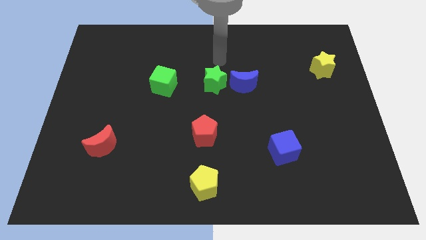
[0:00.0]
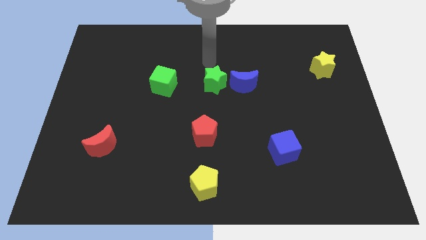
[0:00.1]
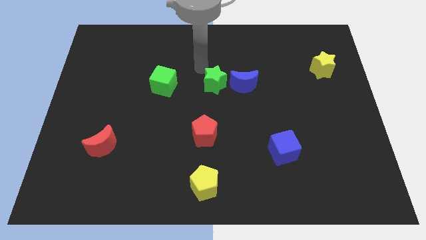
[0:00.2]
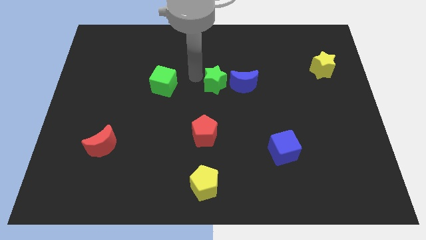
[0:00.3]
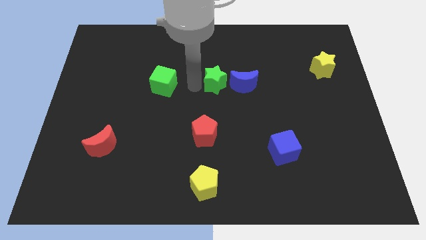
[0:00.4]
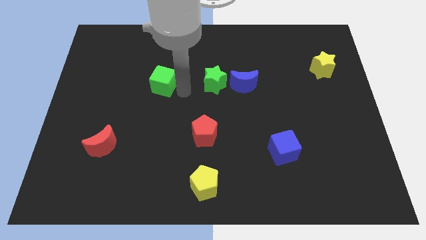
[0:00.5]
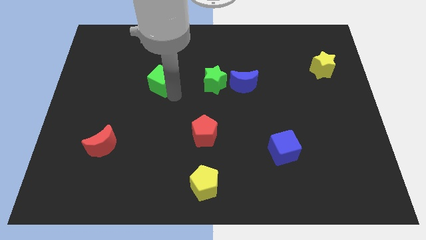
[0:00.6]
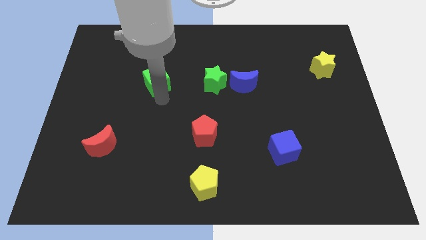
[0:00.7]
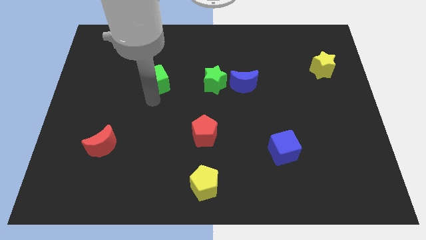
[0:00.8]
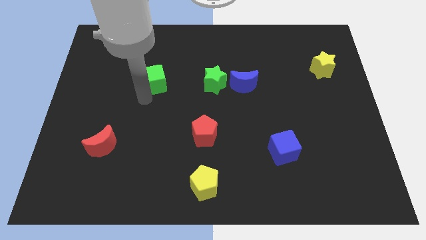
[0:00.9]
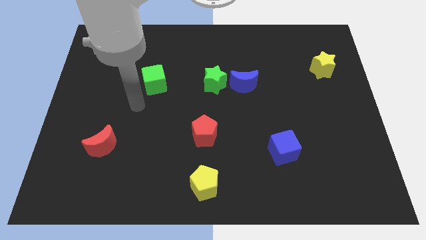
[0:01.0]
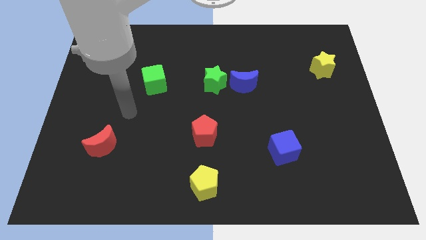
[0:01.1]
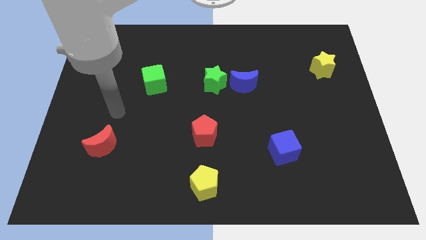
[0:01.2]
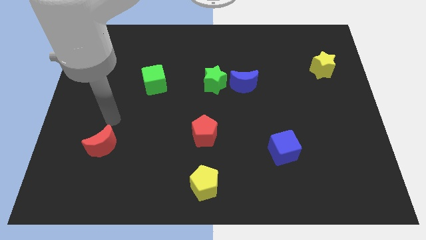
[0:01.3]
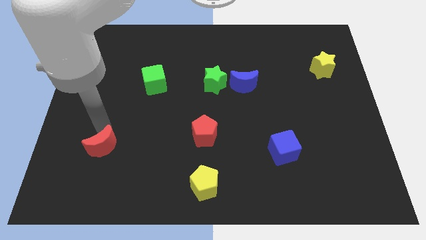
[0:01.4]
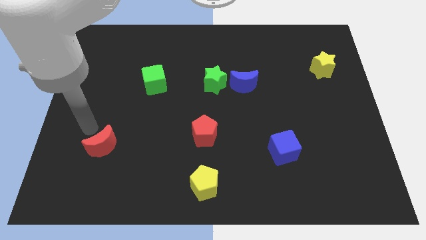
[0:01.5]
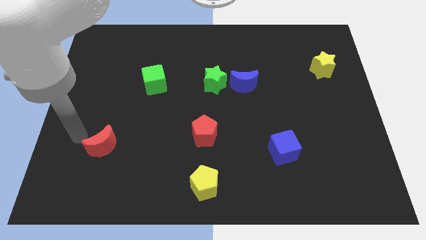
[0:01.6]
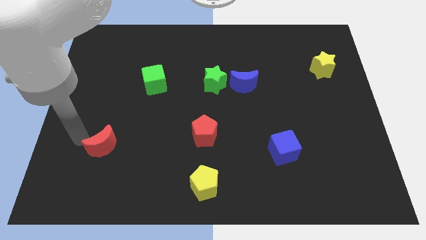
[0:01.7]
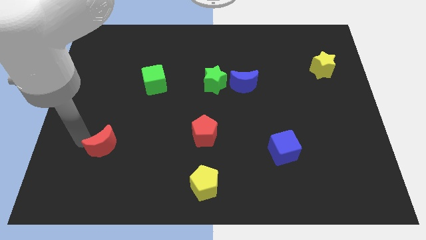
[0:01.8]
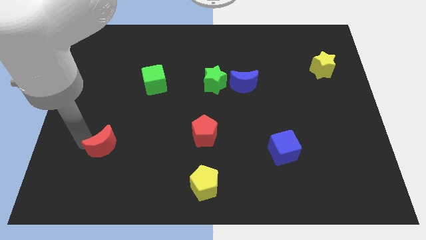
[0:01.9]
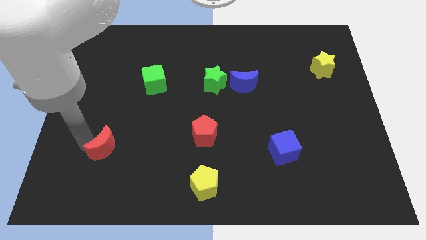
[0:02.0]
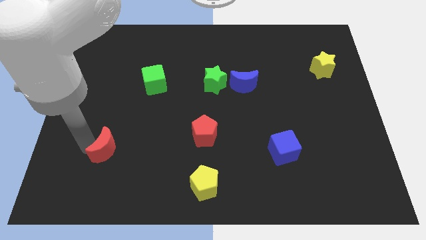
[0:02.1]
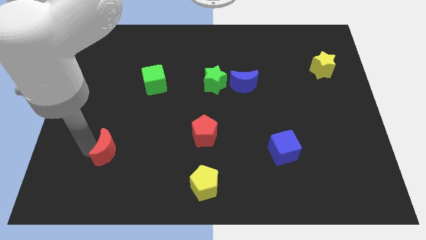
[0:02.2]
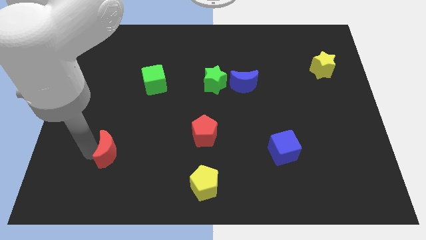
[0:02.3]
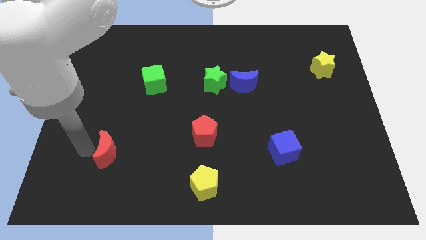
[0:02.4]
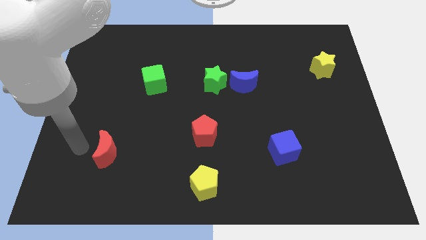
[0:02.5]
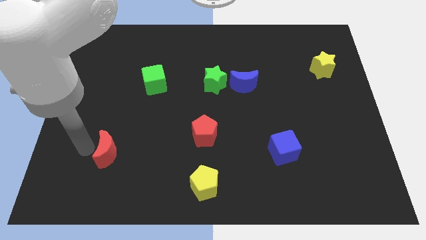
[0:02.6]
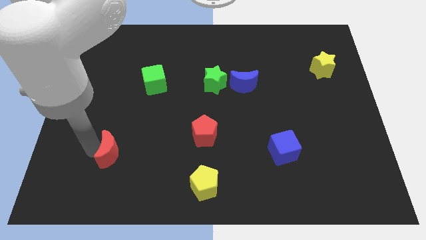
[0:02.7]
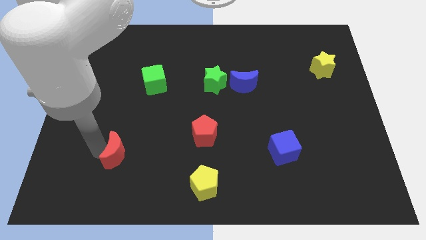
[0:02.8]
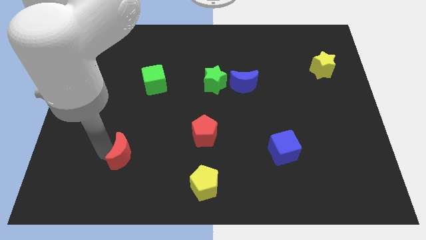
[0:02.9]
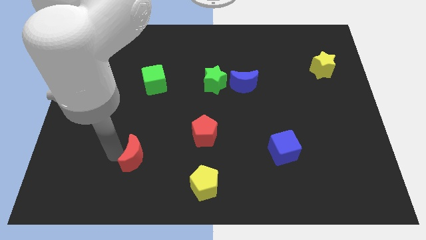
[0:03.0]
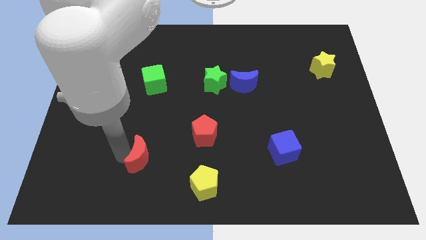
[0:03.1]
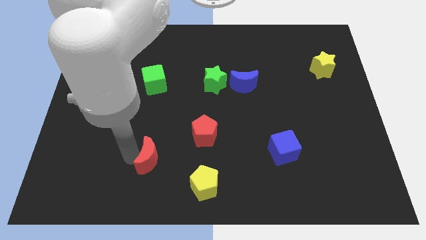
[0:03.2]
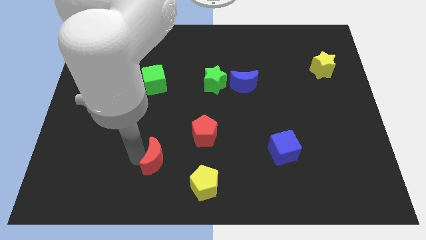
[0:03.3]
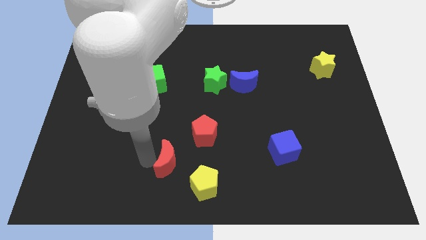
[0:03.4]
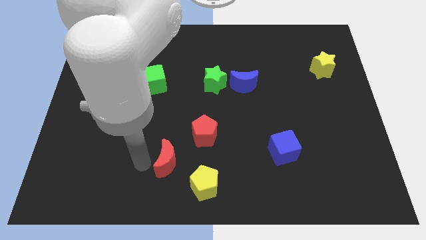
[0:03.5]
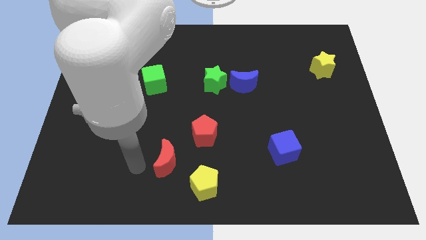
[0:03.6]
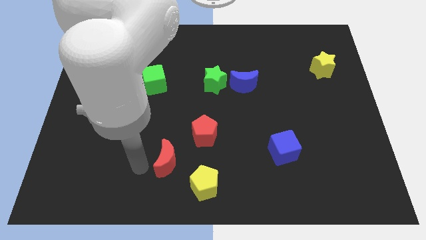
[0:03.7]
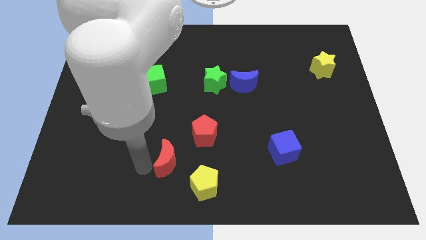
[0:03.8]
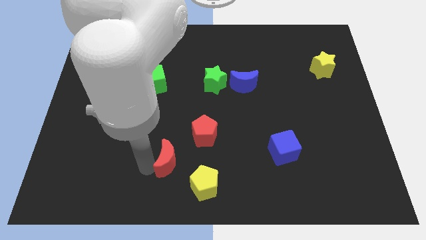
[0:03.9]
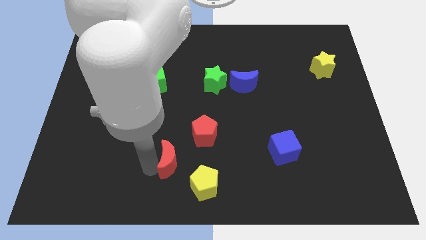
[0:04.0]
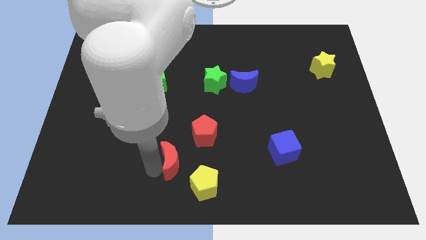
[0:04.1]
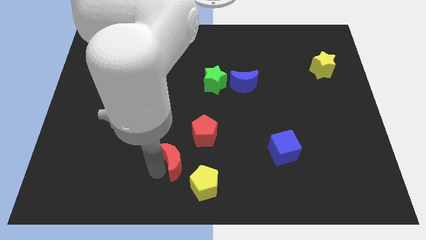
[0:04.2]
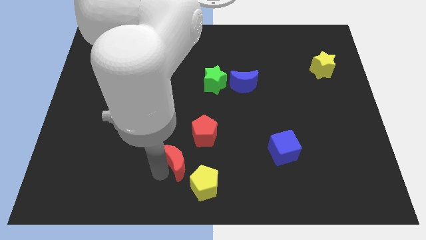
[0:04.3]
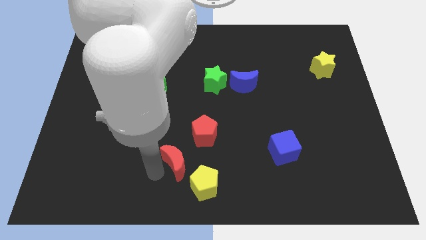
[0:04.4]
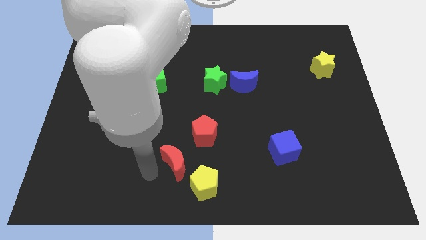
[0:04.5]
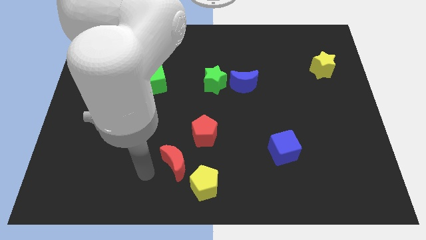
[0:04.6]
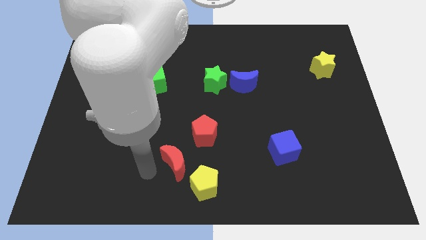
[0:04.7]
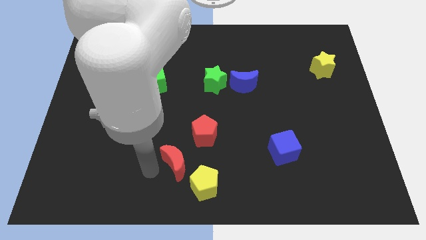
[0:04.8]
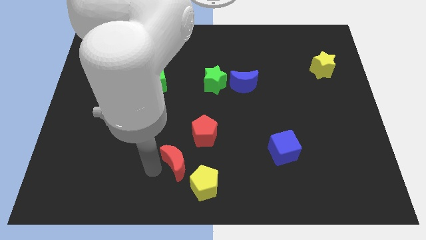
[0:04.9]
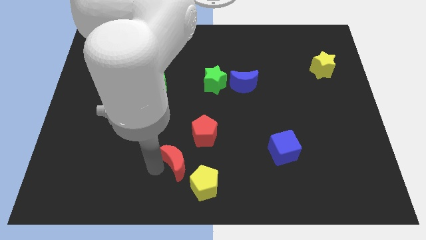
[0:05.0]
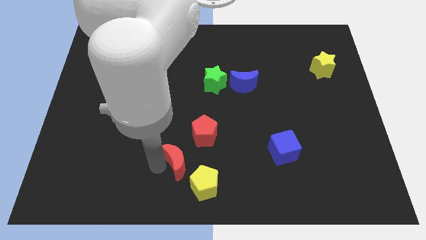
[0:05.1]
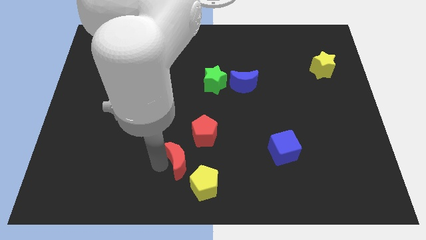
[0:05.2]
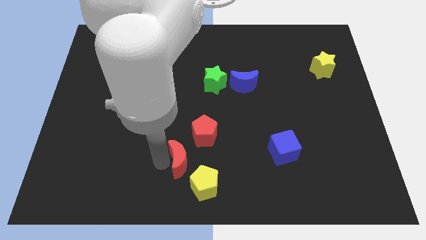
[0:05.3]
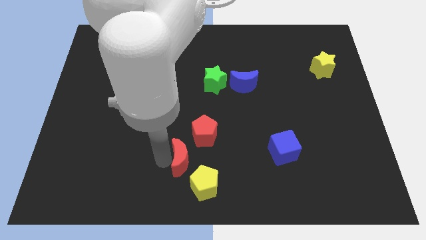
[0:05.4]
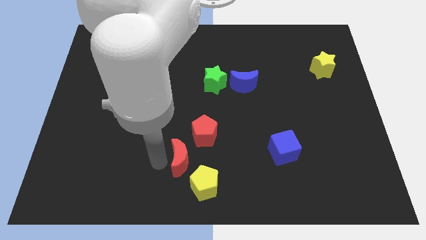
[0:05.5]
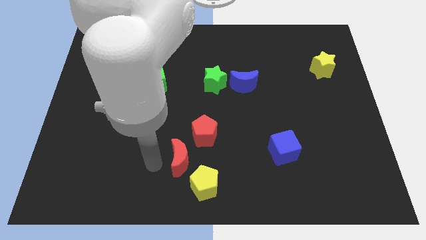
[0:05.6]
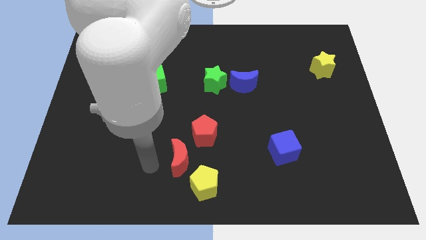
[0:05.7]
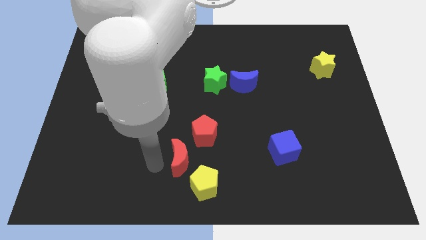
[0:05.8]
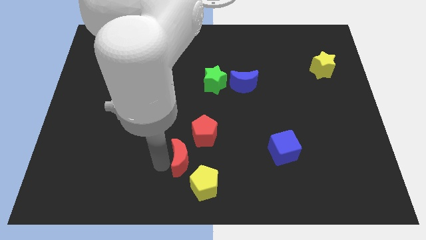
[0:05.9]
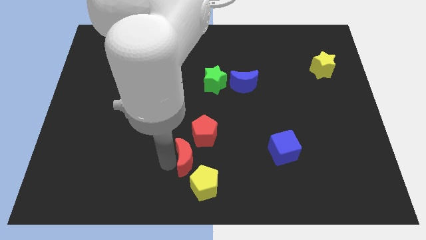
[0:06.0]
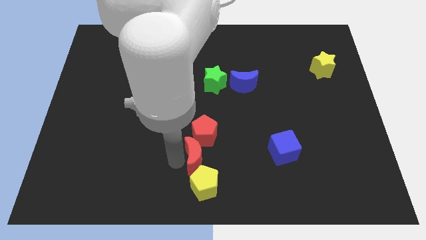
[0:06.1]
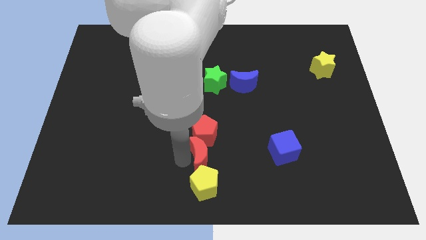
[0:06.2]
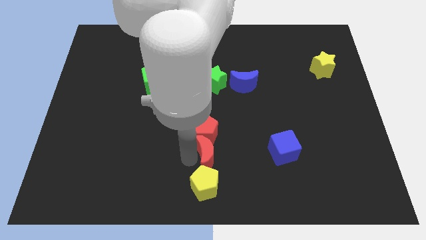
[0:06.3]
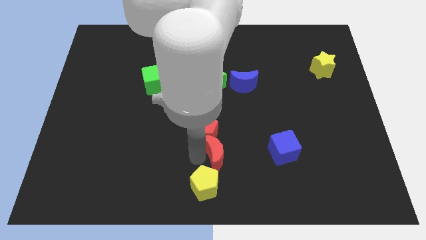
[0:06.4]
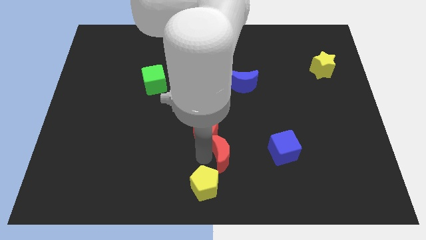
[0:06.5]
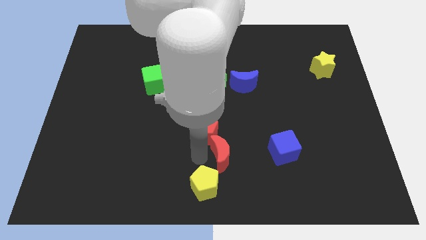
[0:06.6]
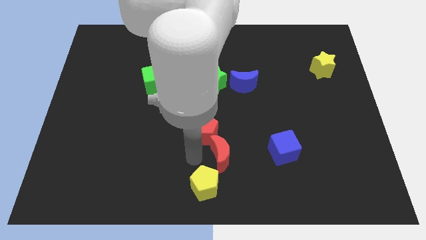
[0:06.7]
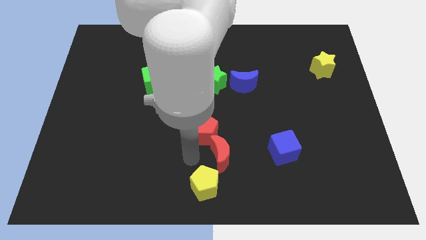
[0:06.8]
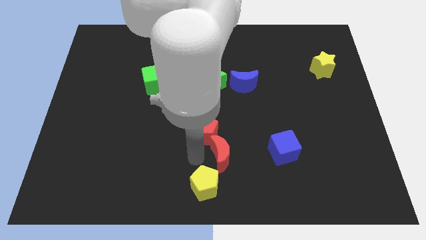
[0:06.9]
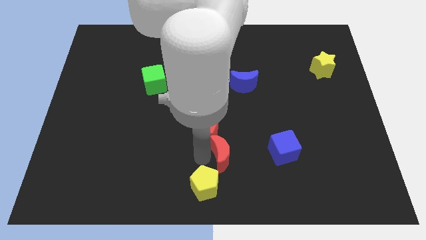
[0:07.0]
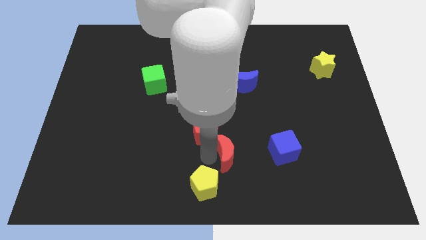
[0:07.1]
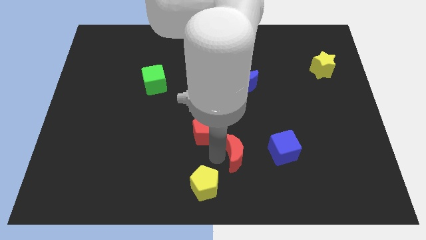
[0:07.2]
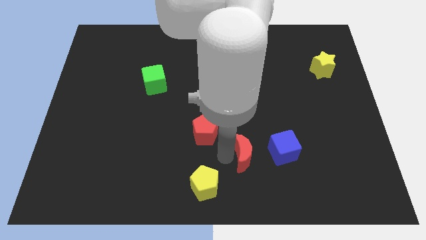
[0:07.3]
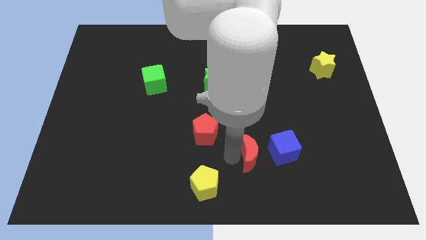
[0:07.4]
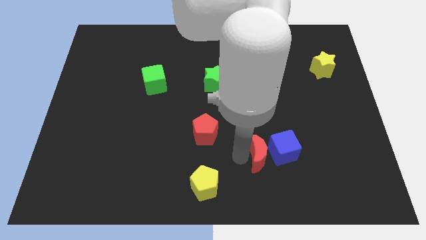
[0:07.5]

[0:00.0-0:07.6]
put the red moon towards the blue cube

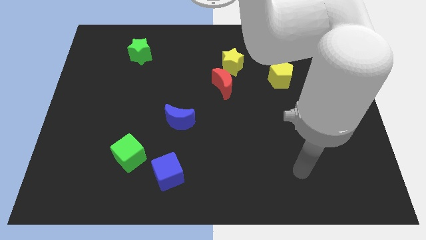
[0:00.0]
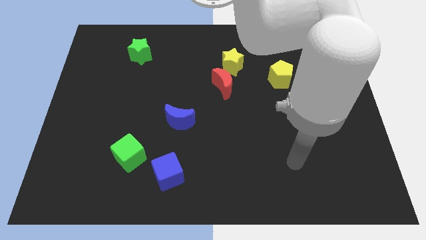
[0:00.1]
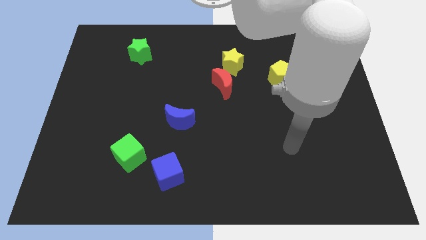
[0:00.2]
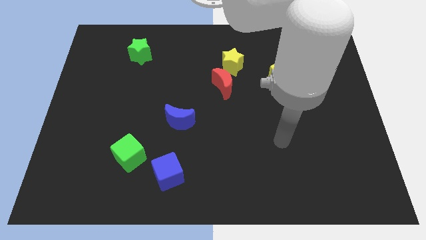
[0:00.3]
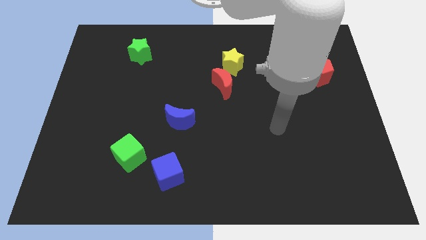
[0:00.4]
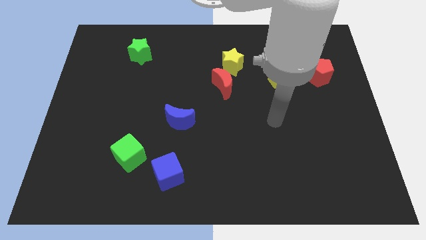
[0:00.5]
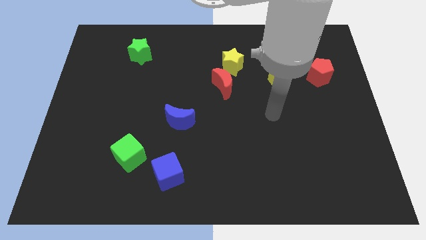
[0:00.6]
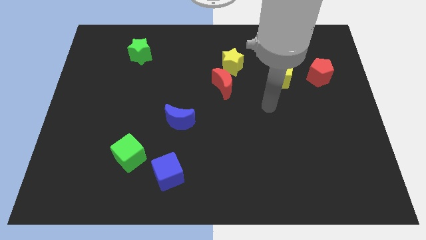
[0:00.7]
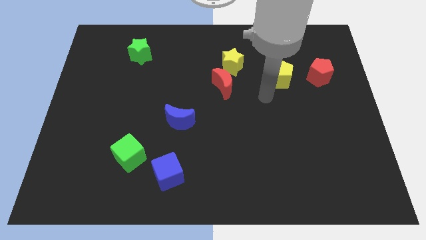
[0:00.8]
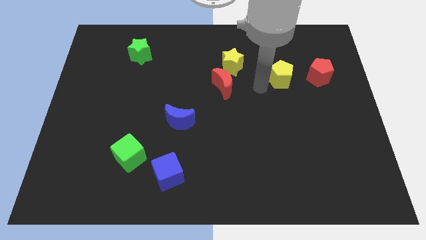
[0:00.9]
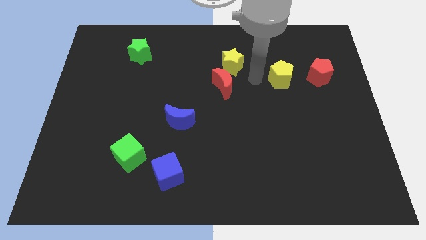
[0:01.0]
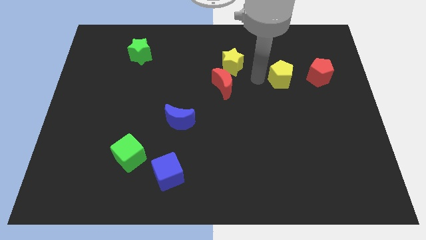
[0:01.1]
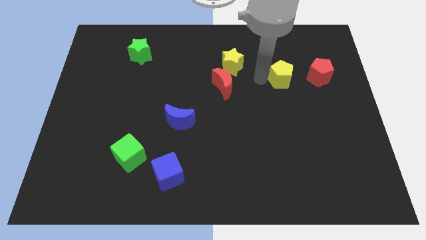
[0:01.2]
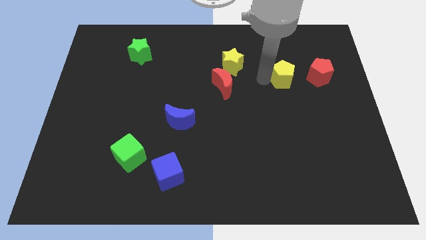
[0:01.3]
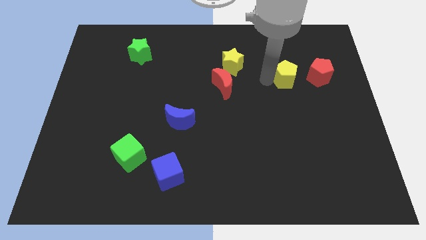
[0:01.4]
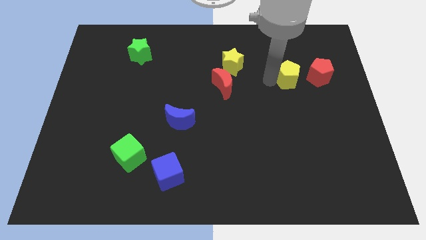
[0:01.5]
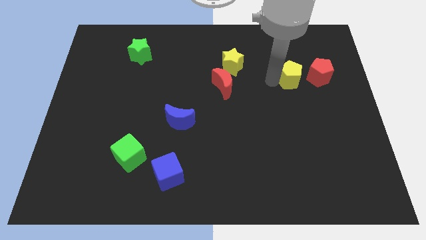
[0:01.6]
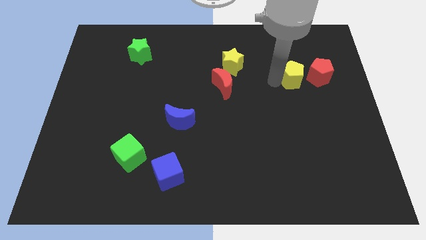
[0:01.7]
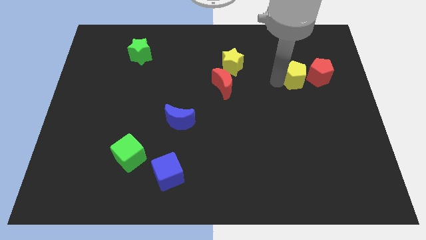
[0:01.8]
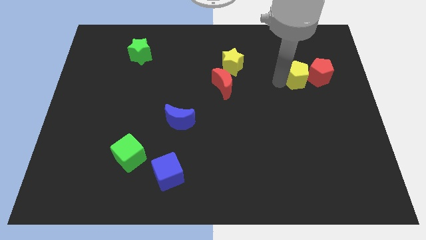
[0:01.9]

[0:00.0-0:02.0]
slide the yellow pentagon to the red pentagon
